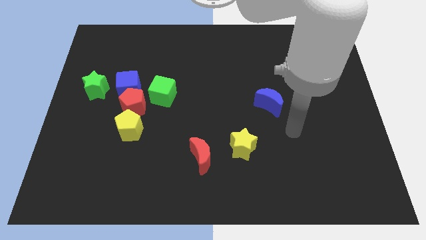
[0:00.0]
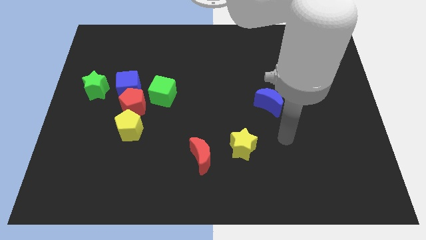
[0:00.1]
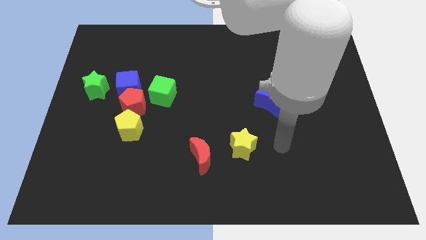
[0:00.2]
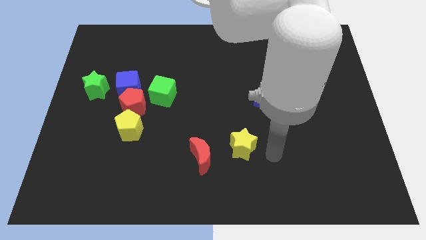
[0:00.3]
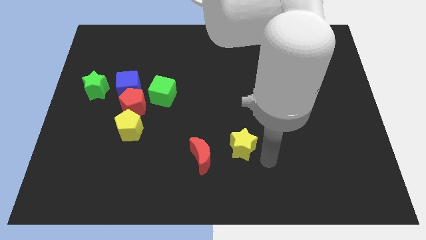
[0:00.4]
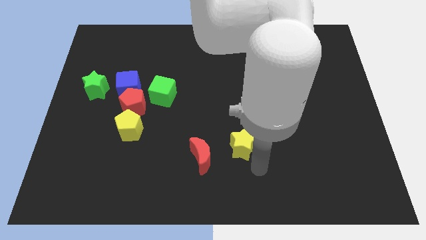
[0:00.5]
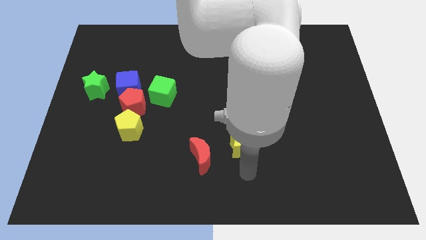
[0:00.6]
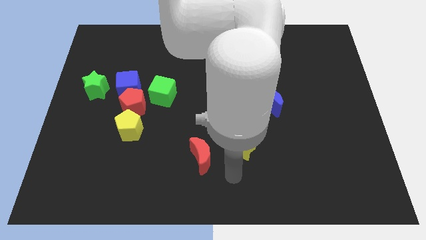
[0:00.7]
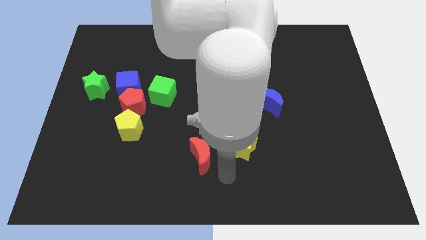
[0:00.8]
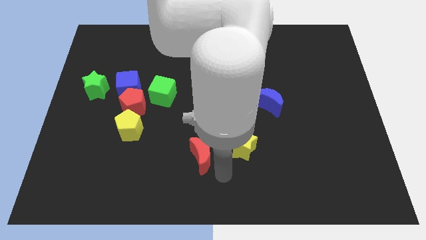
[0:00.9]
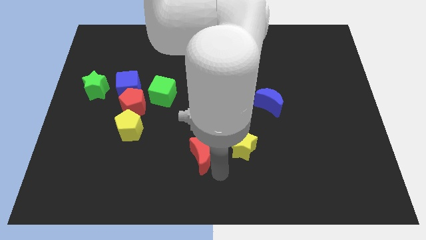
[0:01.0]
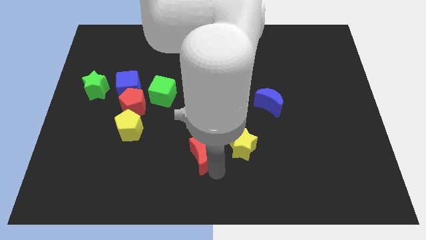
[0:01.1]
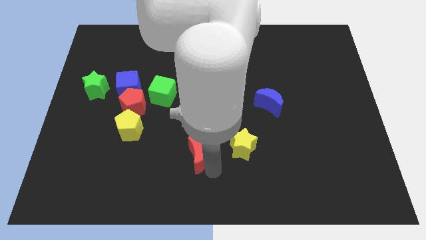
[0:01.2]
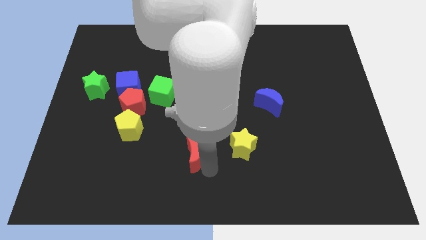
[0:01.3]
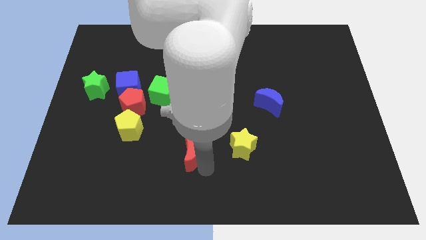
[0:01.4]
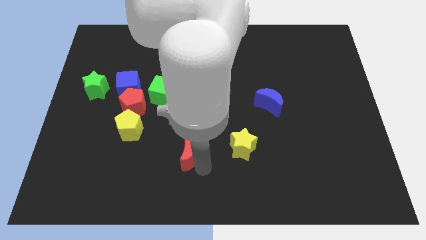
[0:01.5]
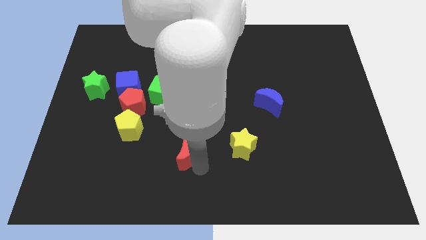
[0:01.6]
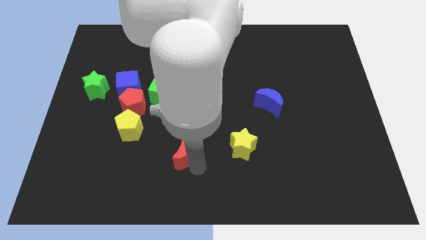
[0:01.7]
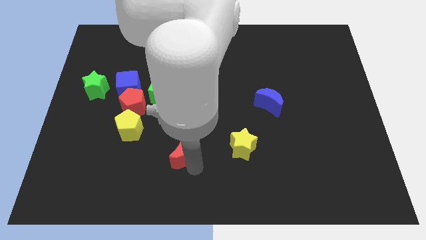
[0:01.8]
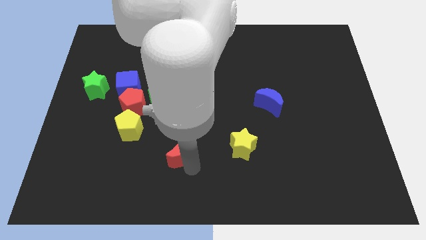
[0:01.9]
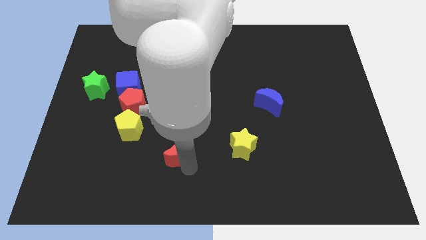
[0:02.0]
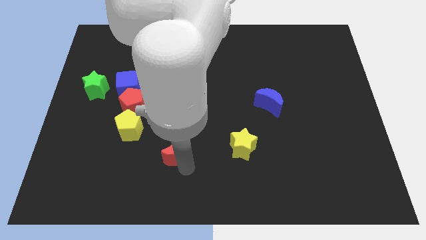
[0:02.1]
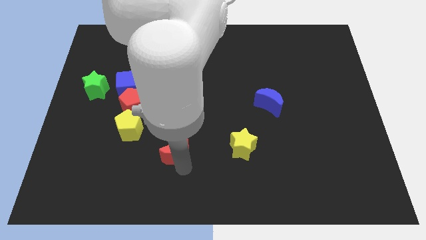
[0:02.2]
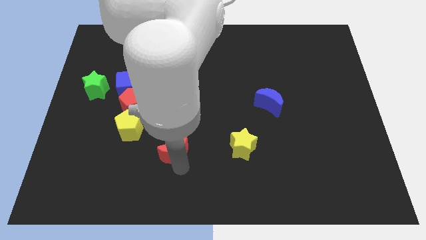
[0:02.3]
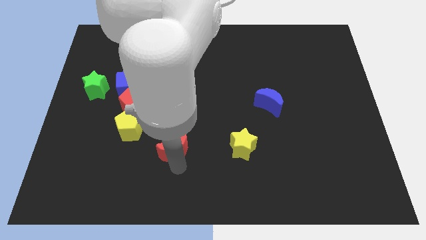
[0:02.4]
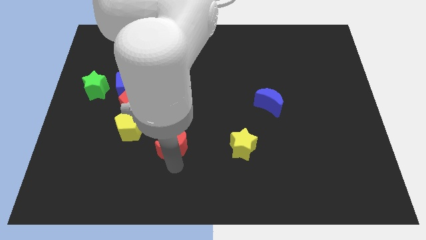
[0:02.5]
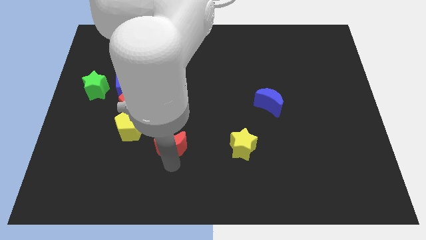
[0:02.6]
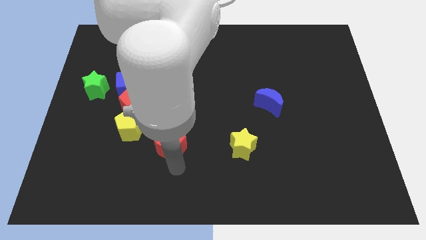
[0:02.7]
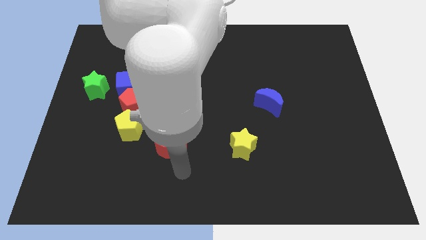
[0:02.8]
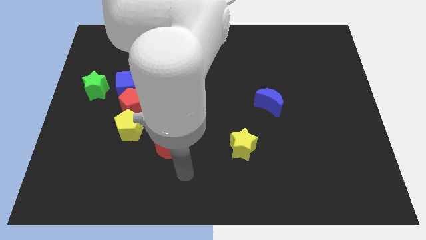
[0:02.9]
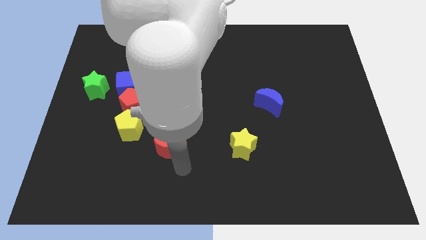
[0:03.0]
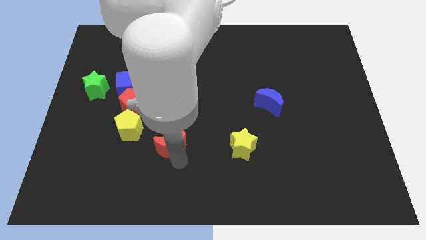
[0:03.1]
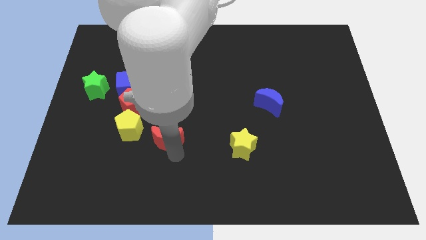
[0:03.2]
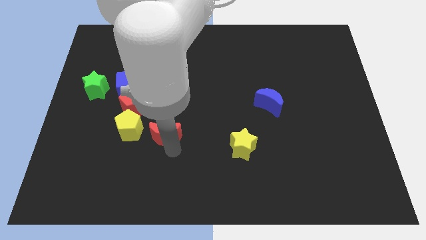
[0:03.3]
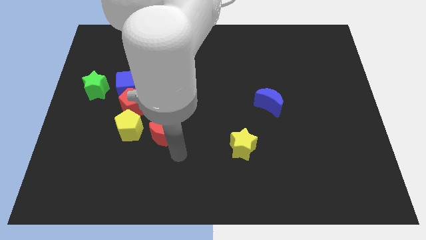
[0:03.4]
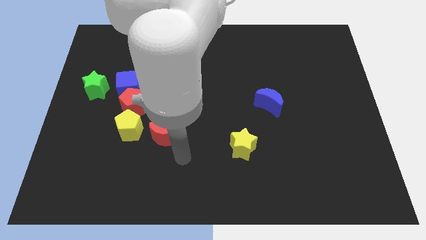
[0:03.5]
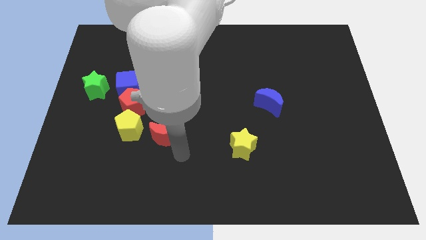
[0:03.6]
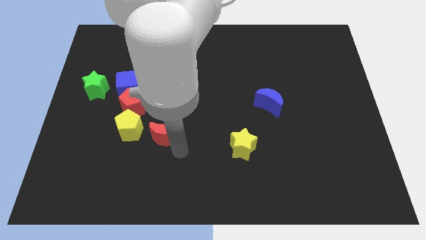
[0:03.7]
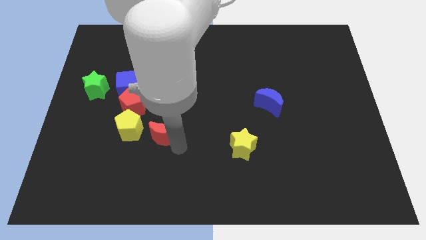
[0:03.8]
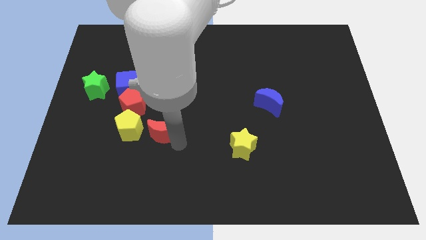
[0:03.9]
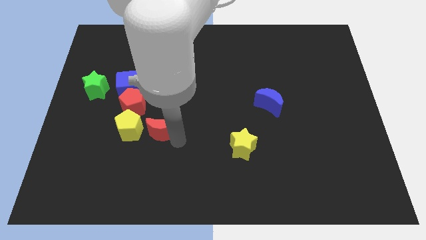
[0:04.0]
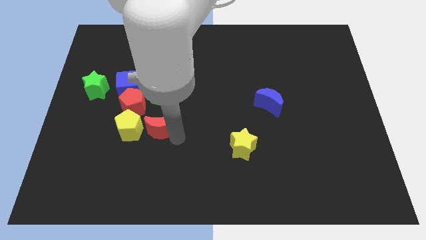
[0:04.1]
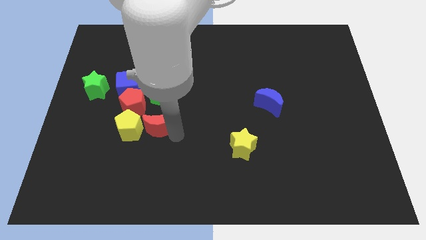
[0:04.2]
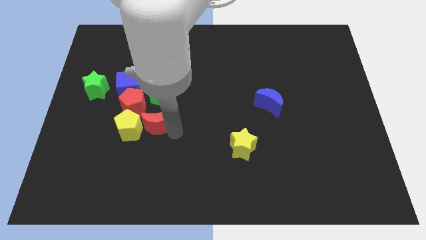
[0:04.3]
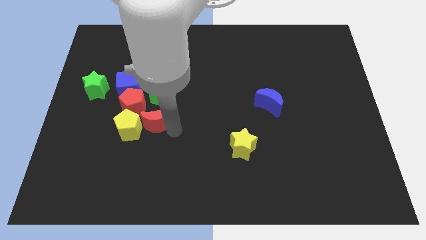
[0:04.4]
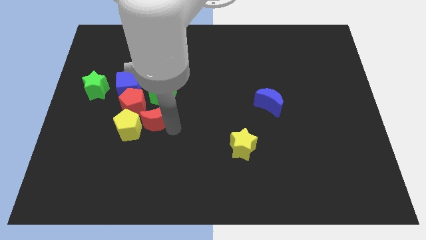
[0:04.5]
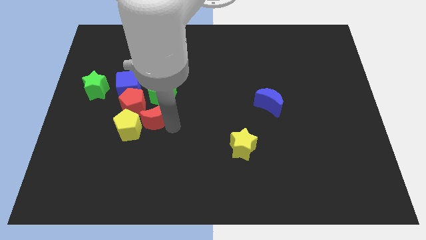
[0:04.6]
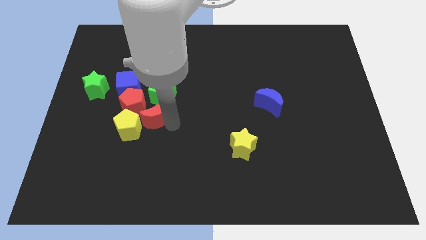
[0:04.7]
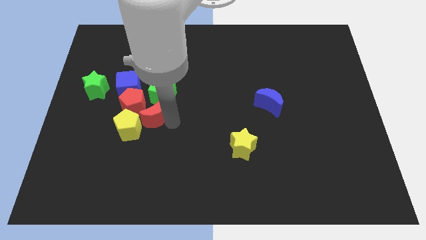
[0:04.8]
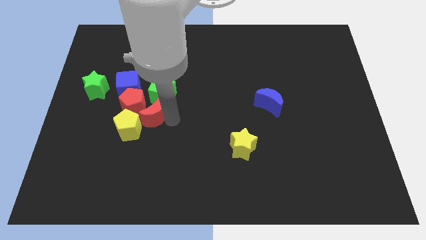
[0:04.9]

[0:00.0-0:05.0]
put the red moon next to the red pentagon

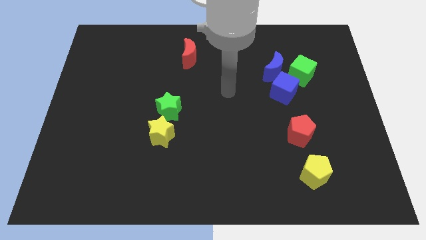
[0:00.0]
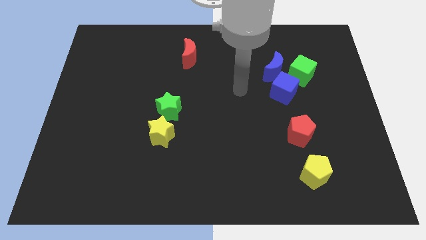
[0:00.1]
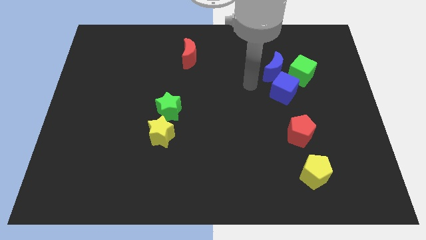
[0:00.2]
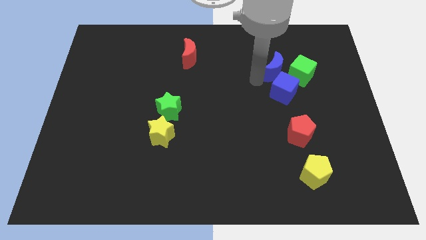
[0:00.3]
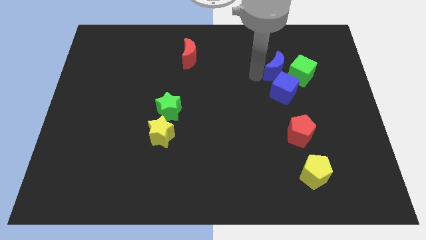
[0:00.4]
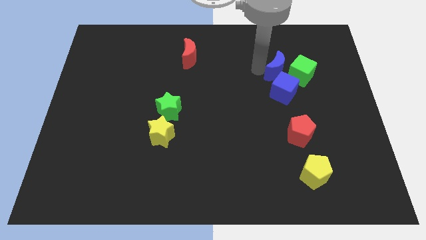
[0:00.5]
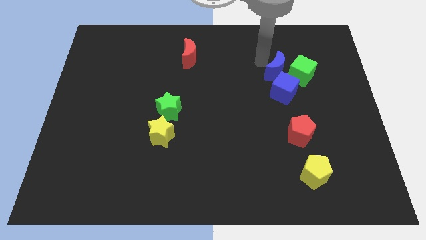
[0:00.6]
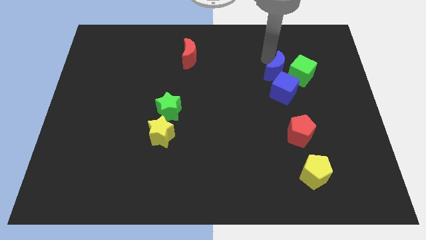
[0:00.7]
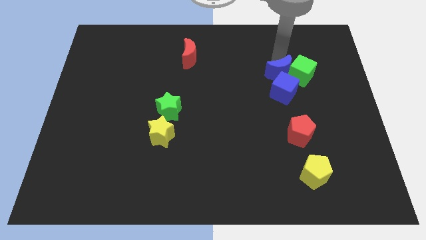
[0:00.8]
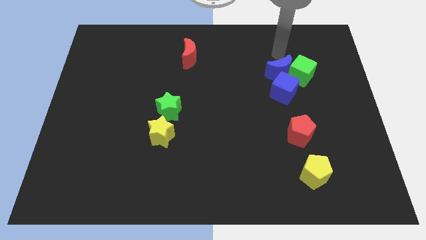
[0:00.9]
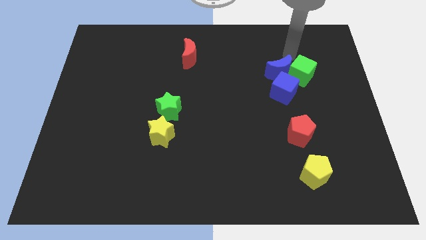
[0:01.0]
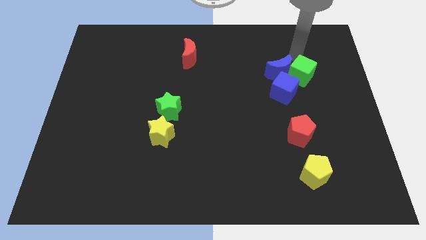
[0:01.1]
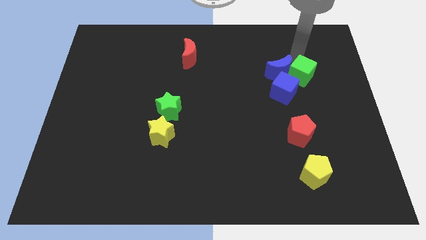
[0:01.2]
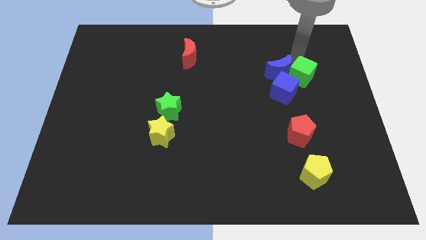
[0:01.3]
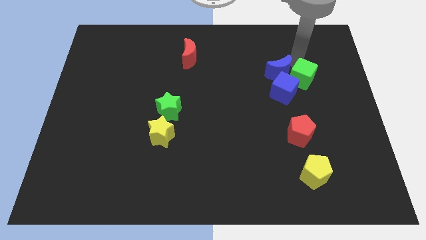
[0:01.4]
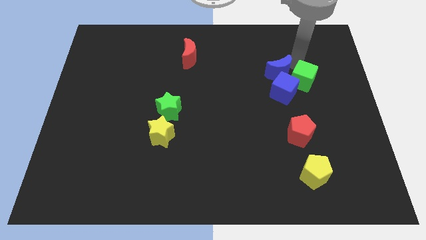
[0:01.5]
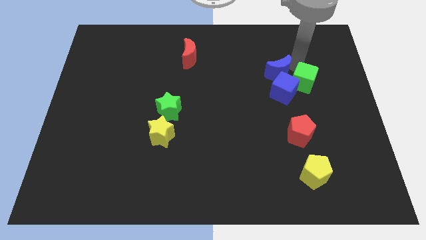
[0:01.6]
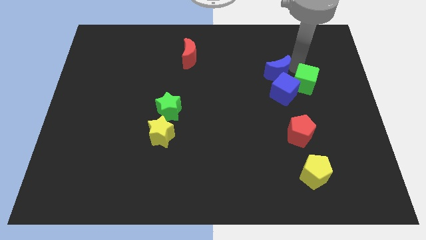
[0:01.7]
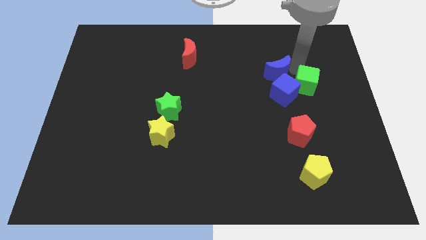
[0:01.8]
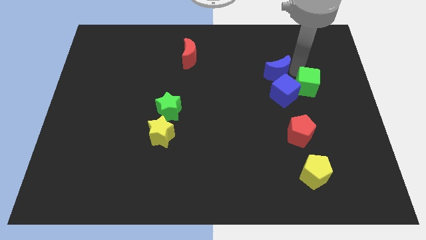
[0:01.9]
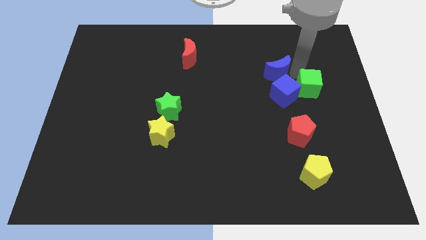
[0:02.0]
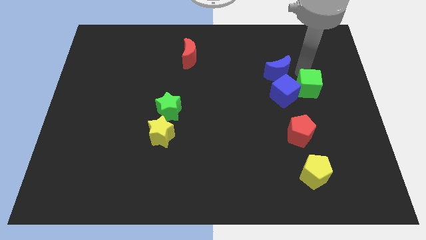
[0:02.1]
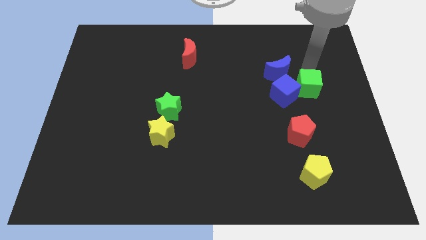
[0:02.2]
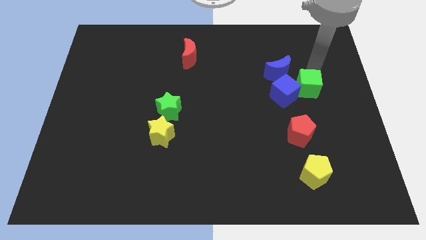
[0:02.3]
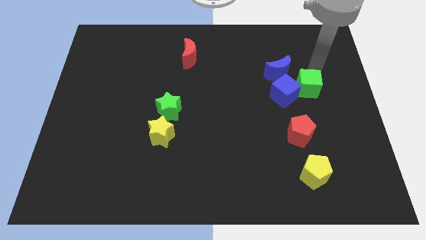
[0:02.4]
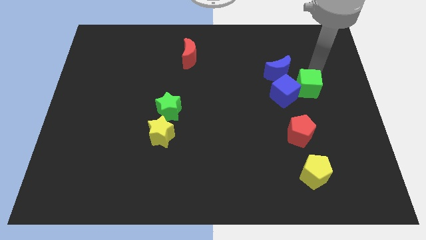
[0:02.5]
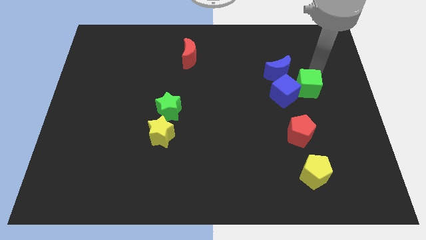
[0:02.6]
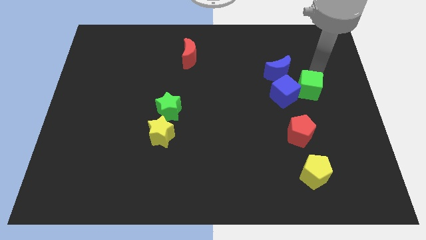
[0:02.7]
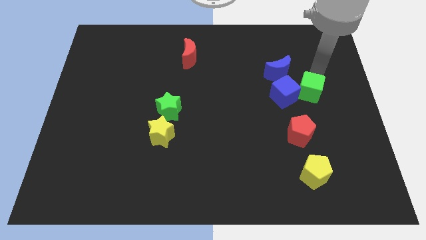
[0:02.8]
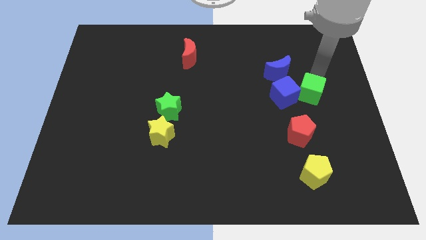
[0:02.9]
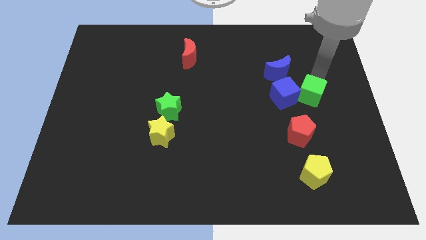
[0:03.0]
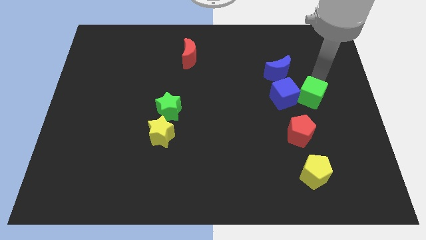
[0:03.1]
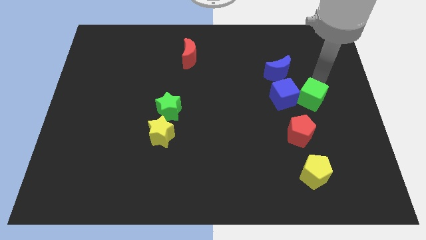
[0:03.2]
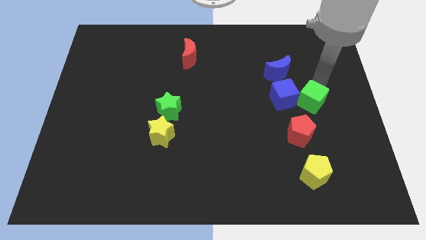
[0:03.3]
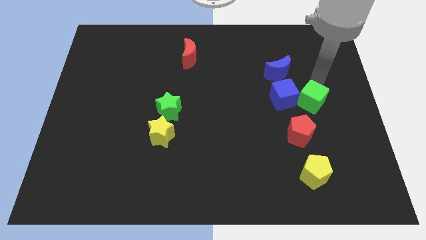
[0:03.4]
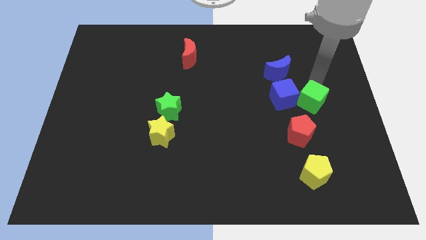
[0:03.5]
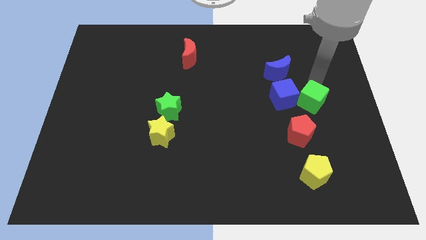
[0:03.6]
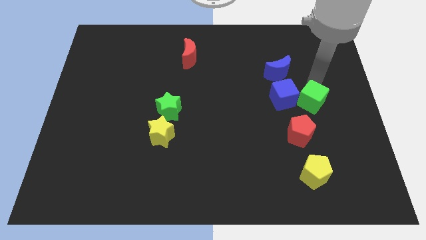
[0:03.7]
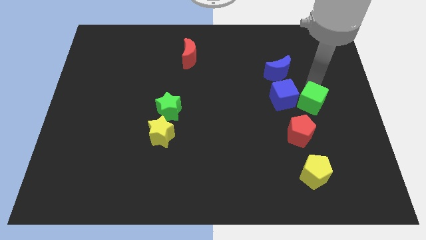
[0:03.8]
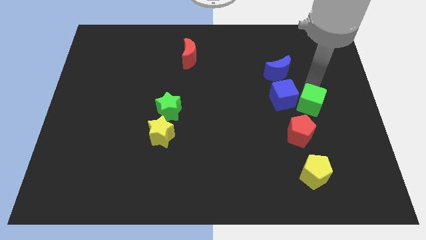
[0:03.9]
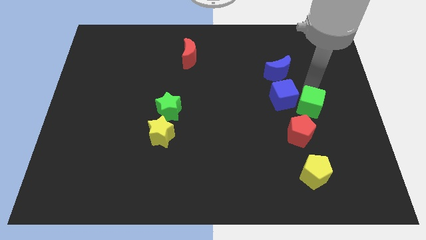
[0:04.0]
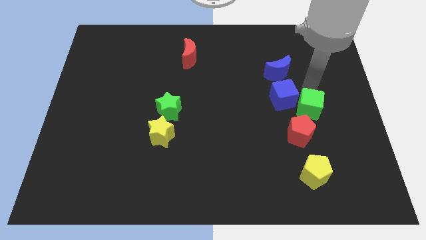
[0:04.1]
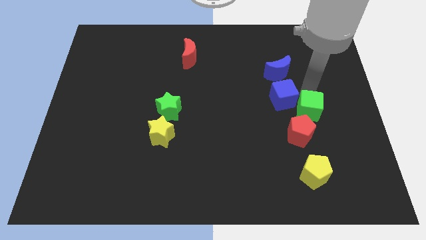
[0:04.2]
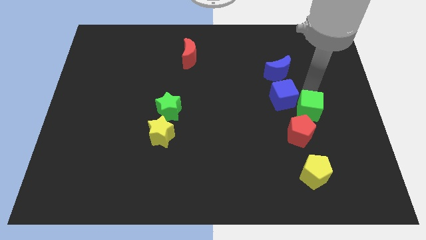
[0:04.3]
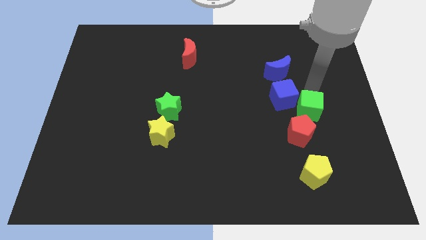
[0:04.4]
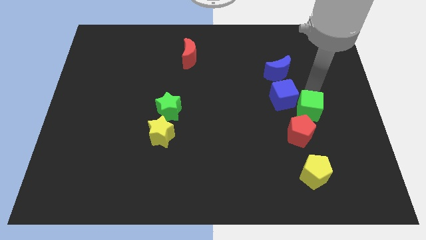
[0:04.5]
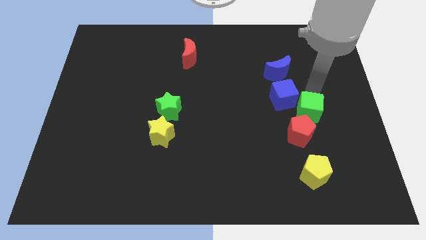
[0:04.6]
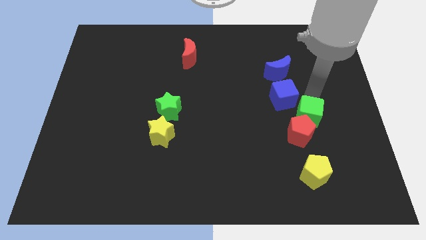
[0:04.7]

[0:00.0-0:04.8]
move the green cube next to the red pentagon
